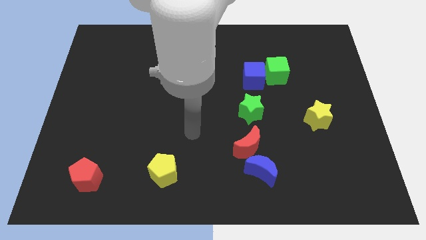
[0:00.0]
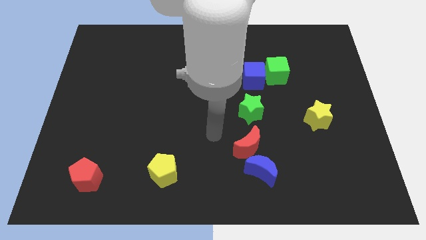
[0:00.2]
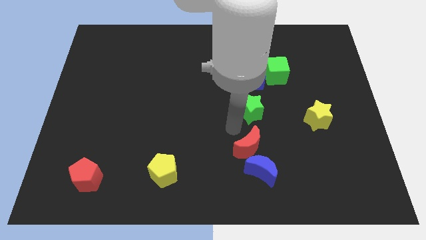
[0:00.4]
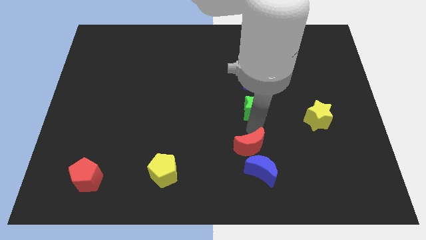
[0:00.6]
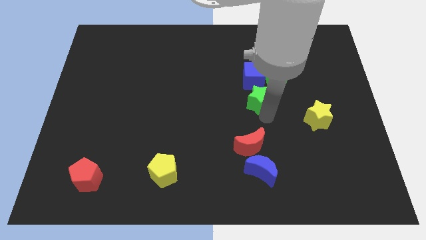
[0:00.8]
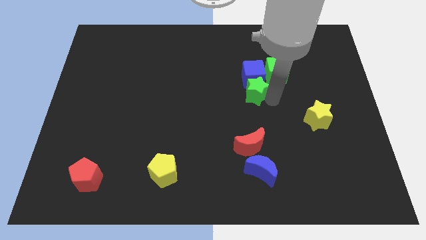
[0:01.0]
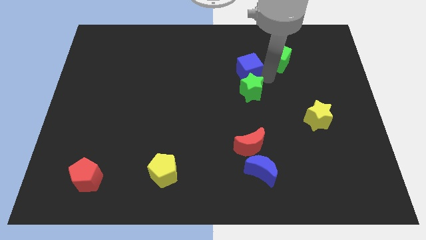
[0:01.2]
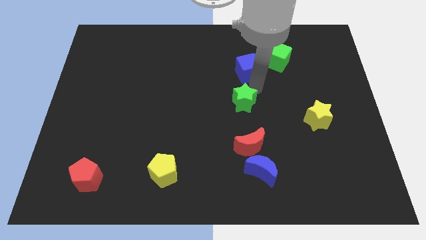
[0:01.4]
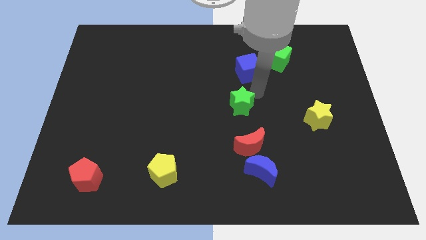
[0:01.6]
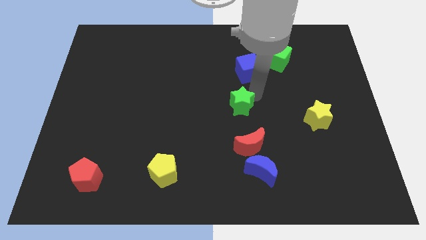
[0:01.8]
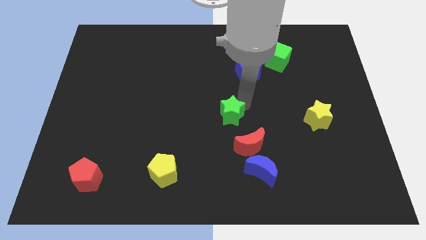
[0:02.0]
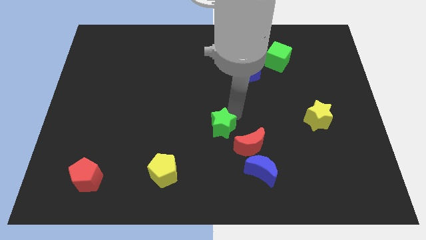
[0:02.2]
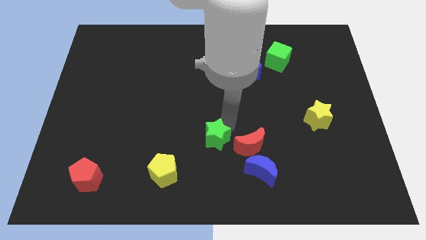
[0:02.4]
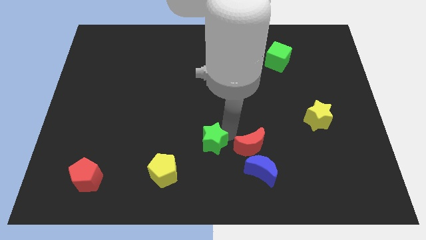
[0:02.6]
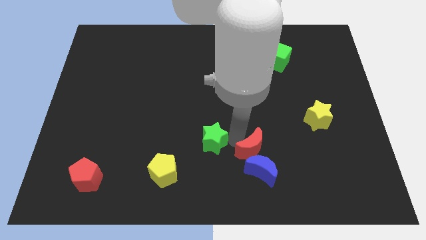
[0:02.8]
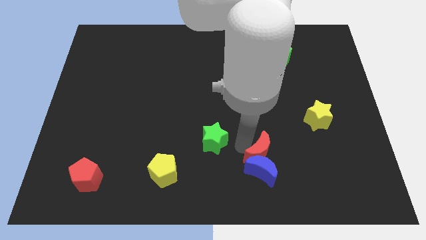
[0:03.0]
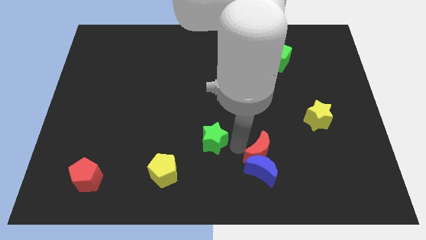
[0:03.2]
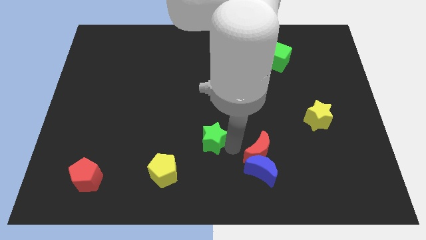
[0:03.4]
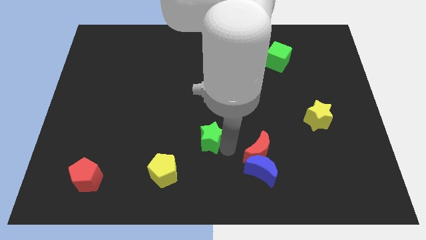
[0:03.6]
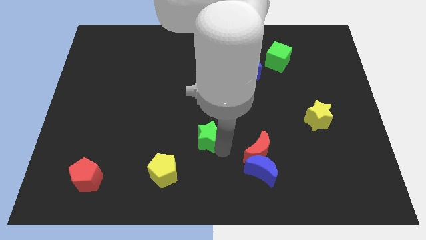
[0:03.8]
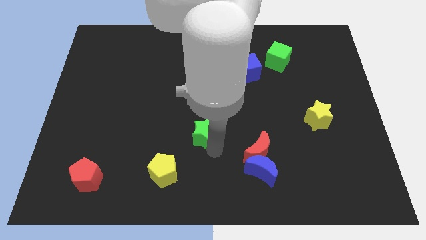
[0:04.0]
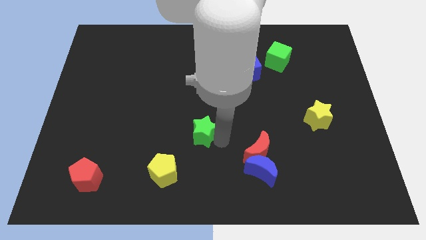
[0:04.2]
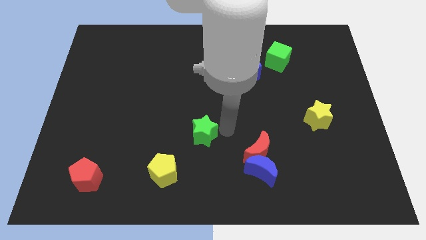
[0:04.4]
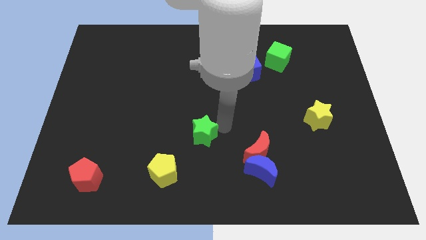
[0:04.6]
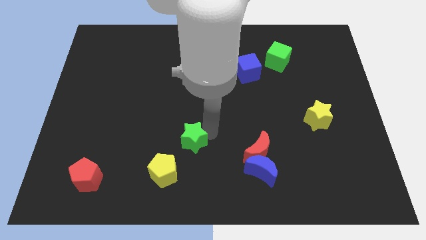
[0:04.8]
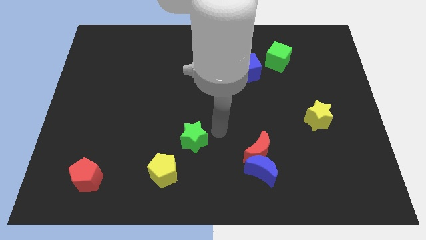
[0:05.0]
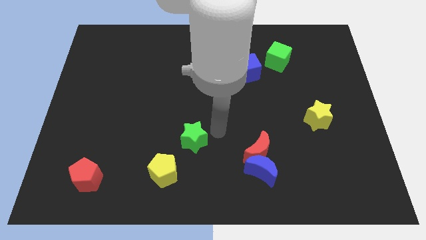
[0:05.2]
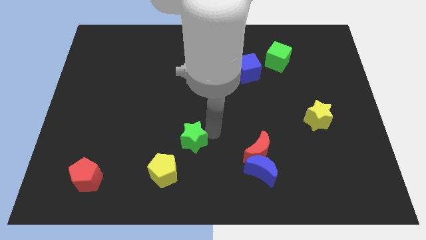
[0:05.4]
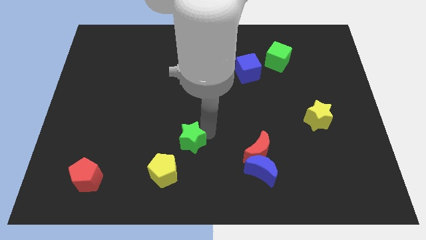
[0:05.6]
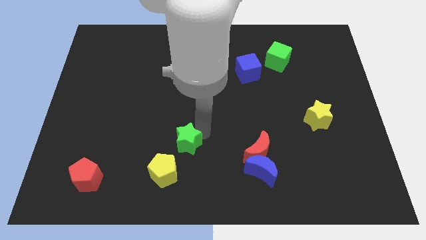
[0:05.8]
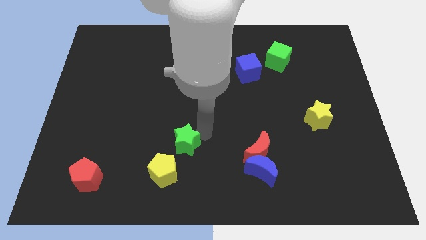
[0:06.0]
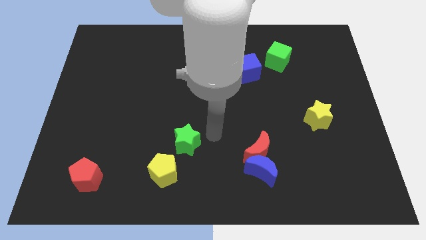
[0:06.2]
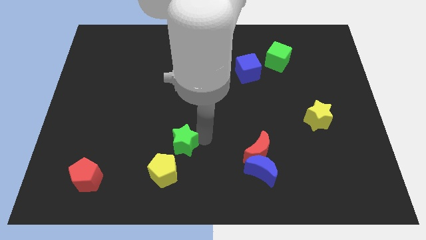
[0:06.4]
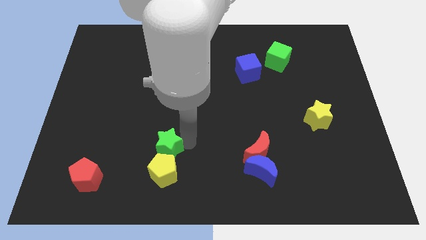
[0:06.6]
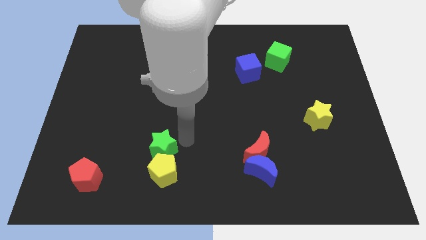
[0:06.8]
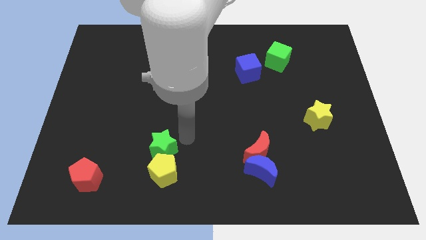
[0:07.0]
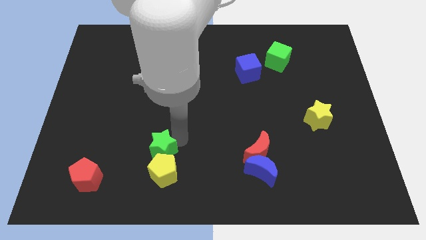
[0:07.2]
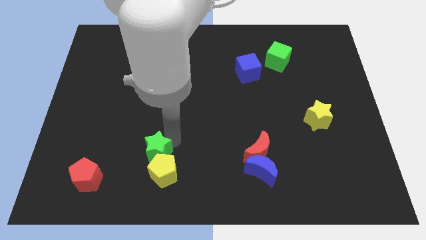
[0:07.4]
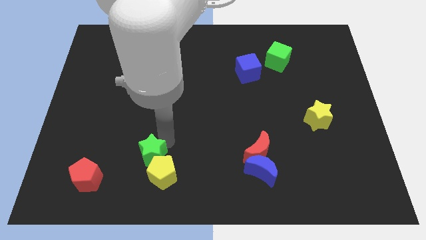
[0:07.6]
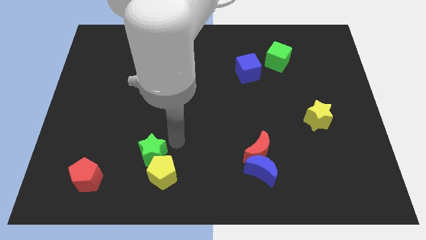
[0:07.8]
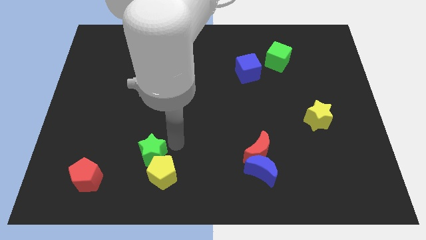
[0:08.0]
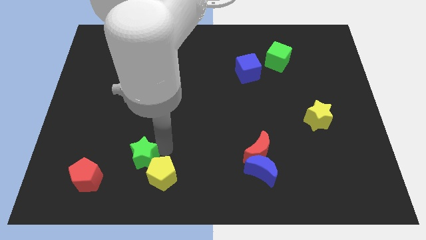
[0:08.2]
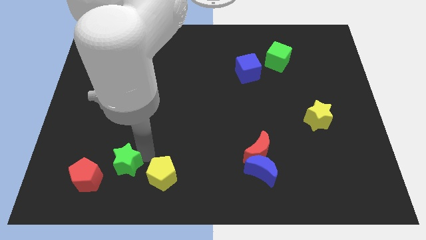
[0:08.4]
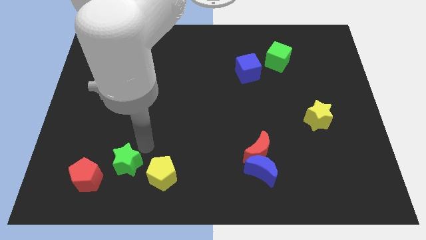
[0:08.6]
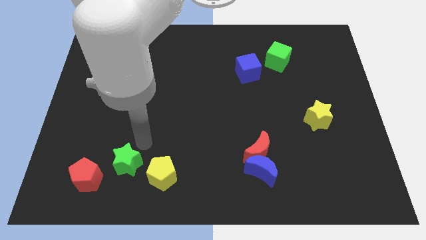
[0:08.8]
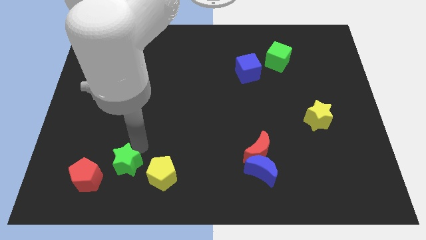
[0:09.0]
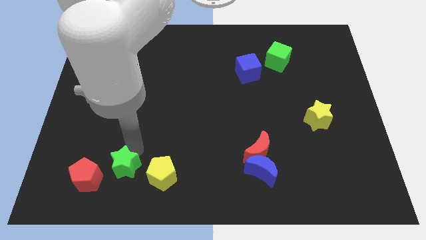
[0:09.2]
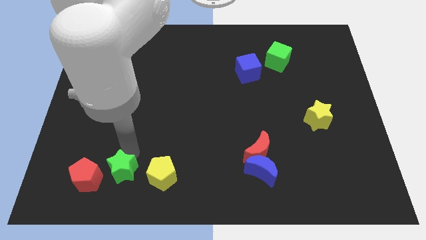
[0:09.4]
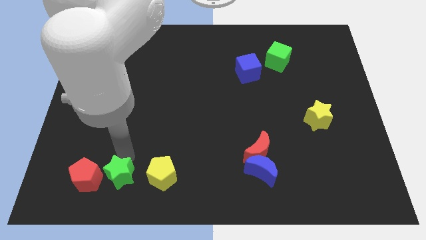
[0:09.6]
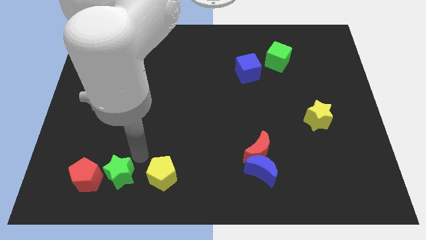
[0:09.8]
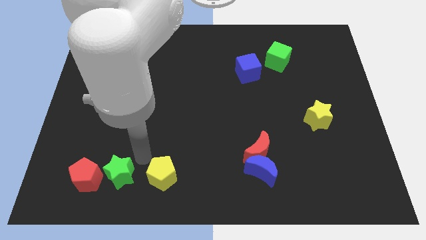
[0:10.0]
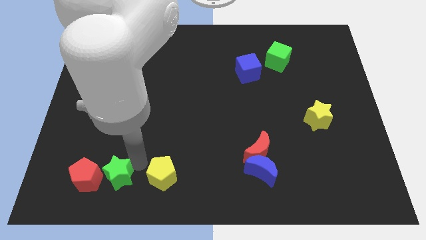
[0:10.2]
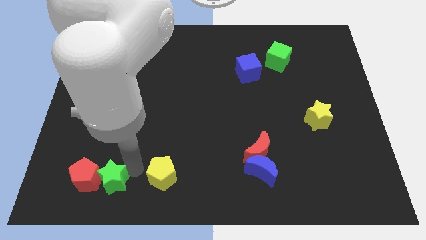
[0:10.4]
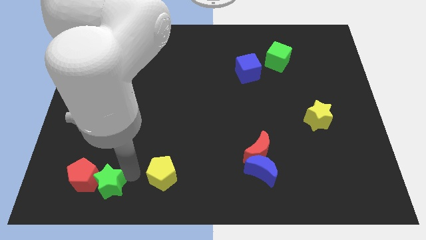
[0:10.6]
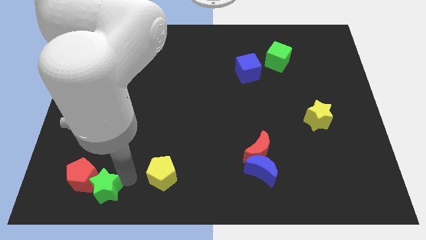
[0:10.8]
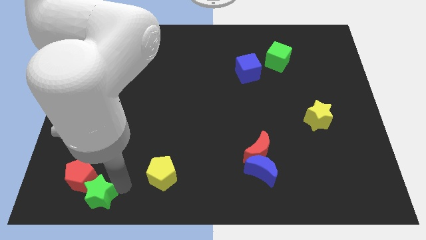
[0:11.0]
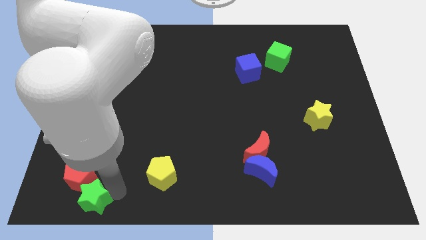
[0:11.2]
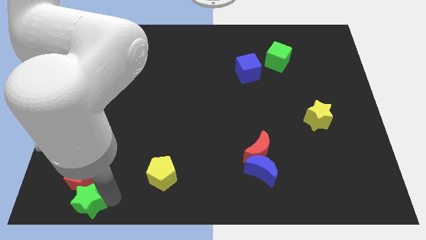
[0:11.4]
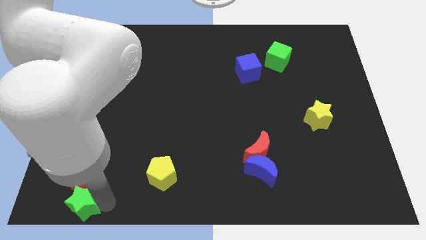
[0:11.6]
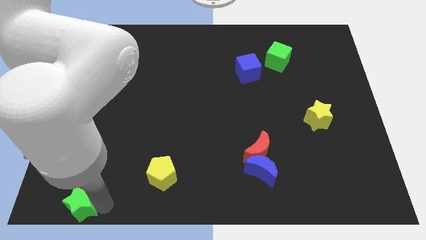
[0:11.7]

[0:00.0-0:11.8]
slide the green star to the bottom left corner
